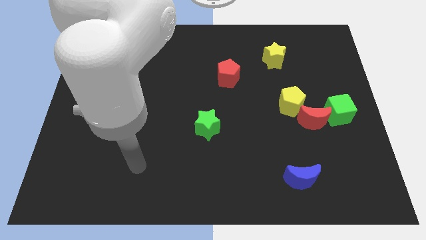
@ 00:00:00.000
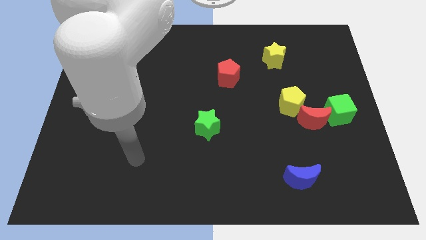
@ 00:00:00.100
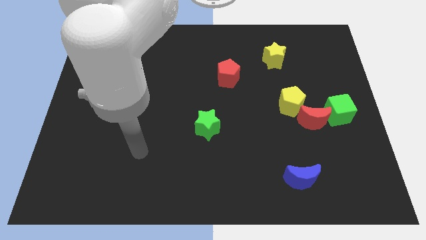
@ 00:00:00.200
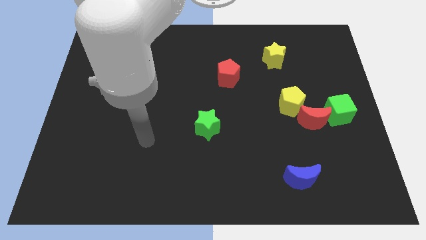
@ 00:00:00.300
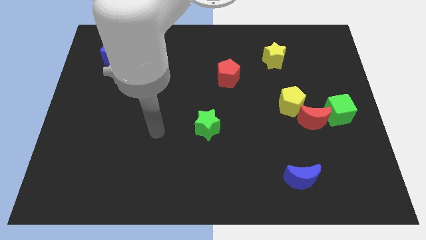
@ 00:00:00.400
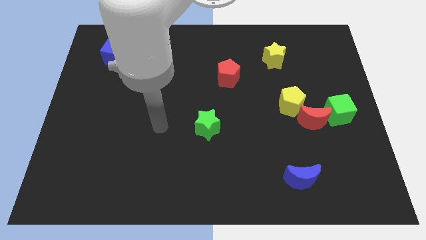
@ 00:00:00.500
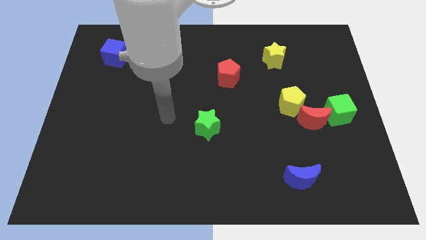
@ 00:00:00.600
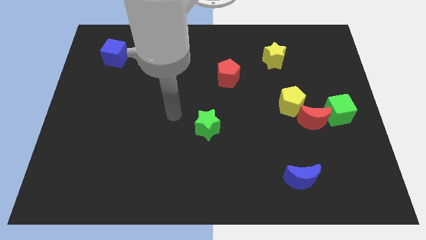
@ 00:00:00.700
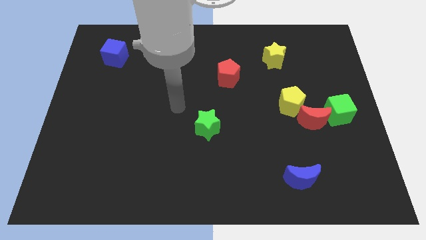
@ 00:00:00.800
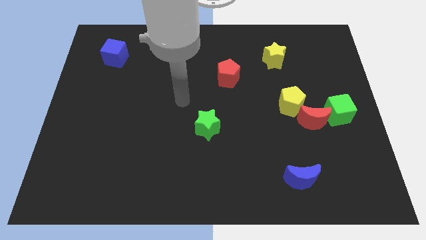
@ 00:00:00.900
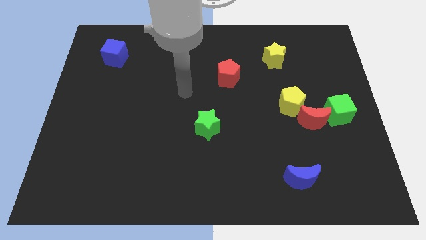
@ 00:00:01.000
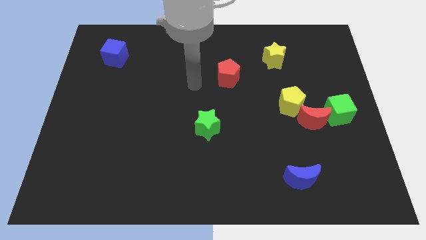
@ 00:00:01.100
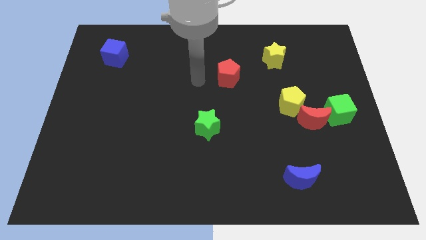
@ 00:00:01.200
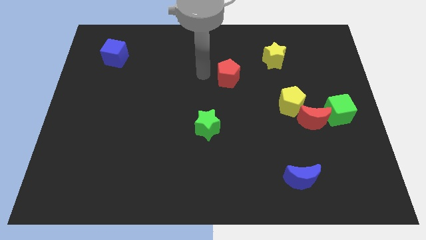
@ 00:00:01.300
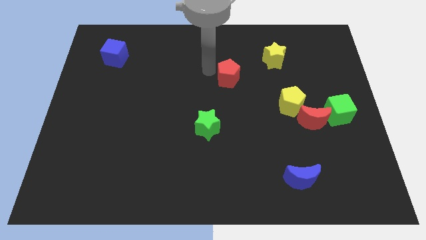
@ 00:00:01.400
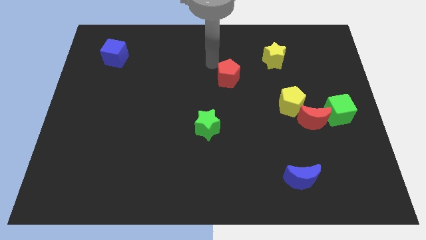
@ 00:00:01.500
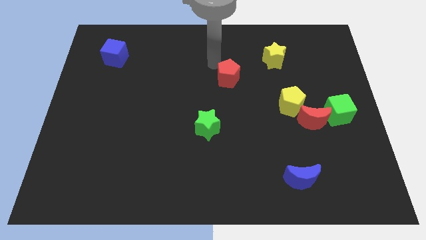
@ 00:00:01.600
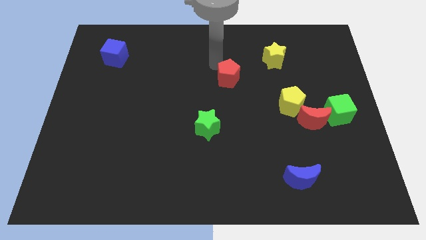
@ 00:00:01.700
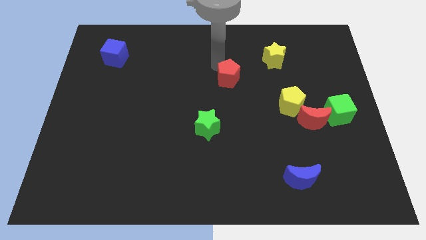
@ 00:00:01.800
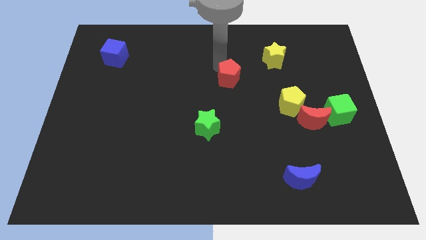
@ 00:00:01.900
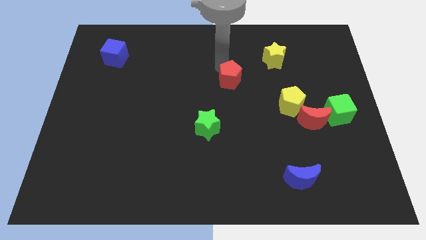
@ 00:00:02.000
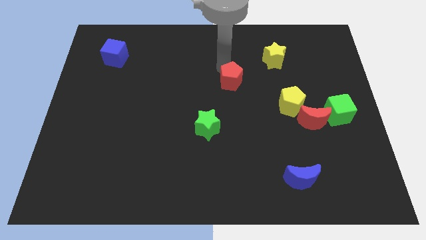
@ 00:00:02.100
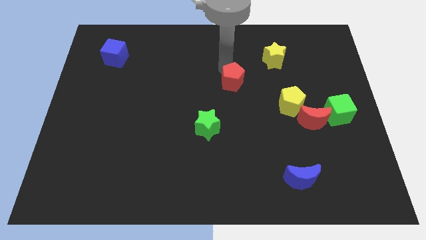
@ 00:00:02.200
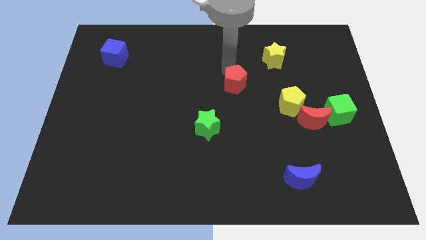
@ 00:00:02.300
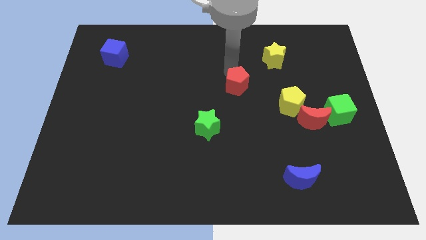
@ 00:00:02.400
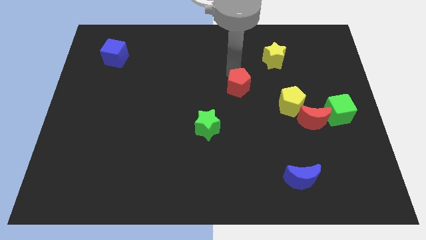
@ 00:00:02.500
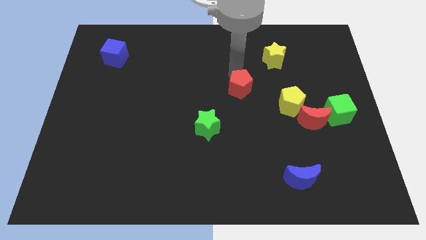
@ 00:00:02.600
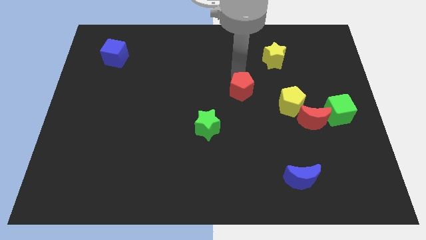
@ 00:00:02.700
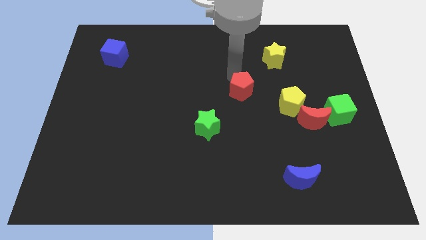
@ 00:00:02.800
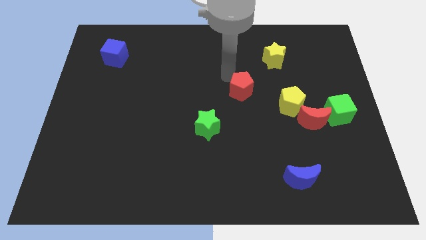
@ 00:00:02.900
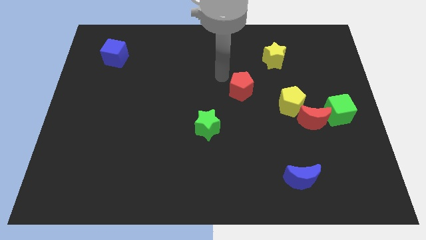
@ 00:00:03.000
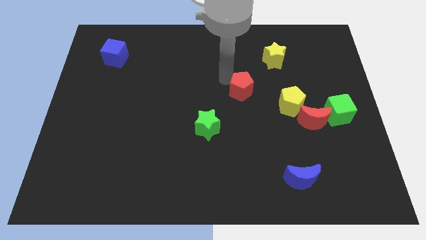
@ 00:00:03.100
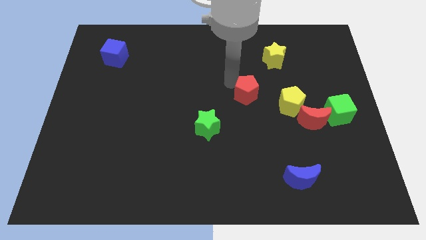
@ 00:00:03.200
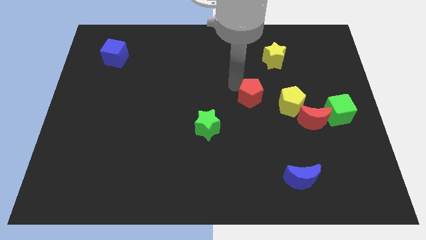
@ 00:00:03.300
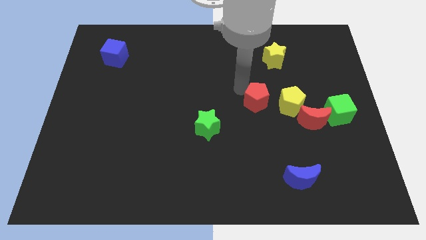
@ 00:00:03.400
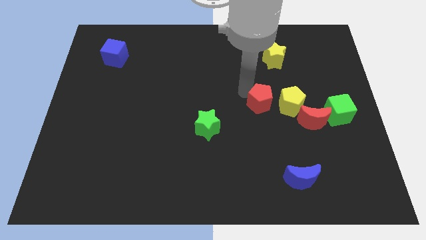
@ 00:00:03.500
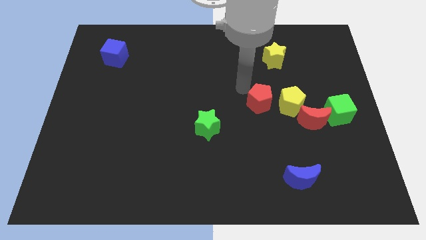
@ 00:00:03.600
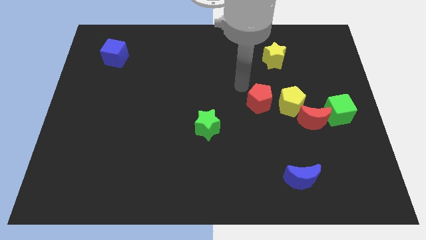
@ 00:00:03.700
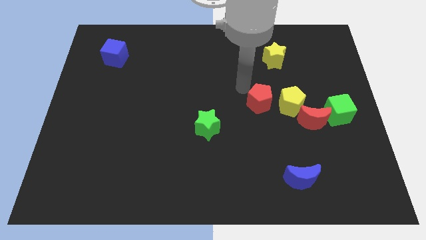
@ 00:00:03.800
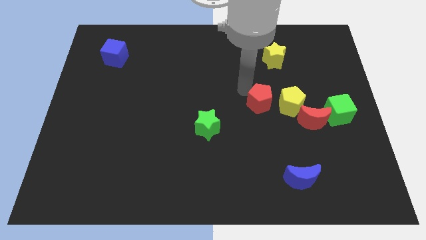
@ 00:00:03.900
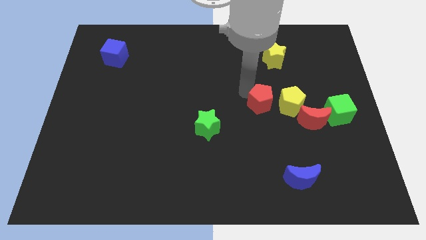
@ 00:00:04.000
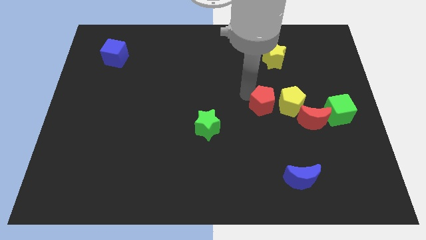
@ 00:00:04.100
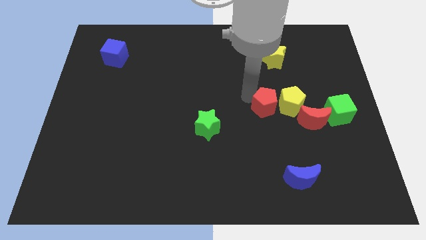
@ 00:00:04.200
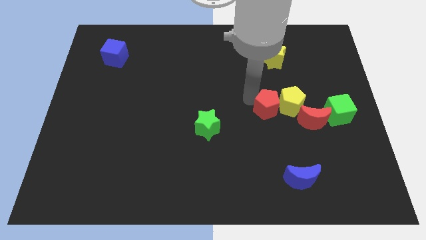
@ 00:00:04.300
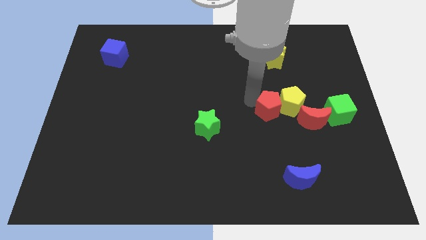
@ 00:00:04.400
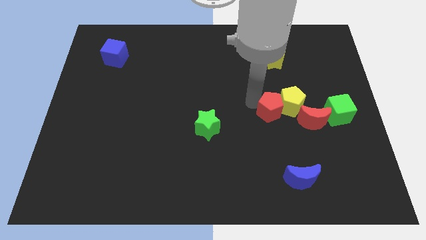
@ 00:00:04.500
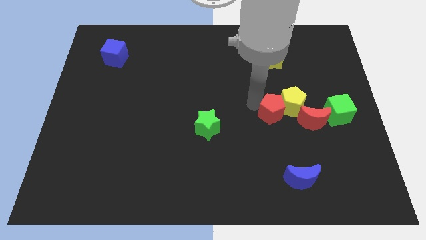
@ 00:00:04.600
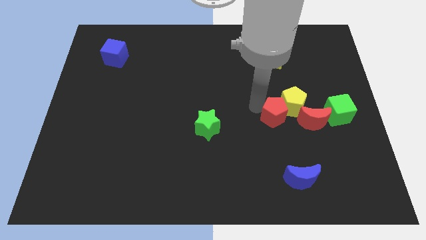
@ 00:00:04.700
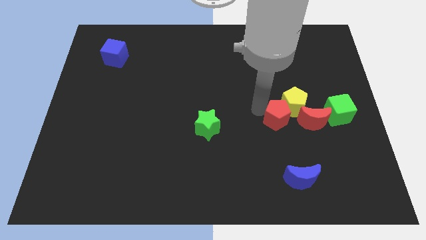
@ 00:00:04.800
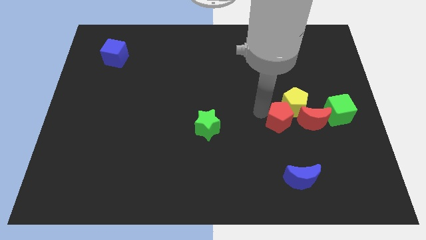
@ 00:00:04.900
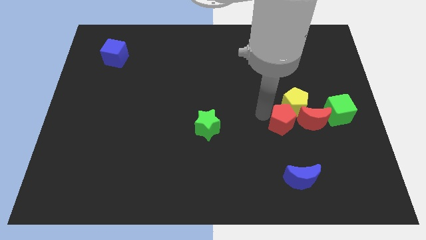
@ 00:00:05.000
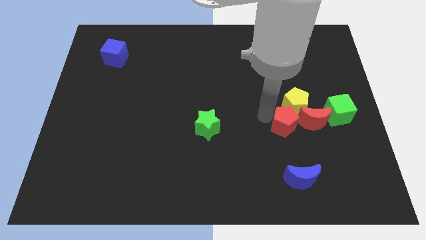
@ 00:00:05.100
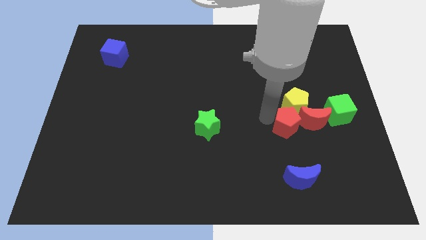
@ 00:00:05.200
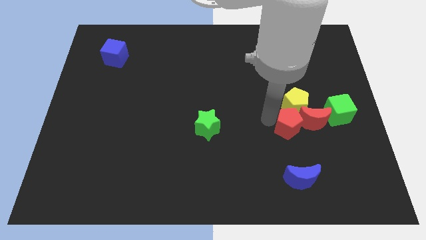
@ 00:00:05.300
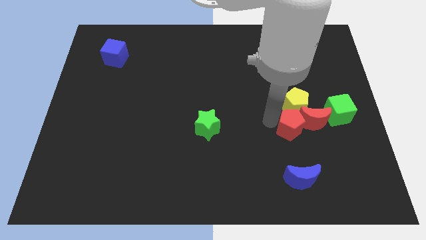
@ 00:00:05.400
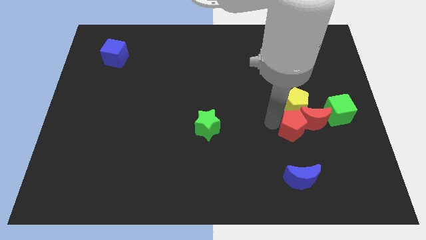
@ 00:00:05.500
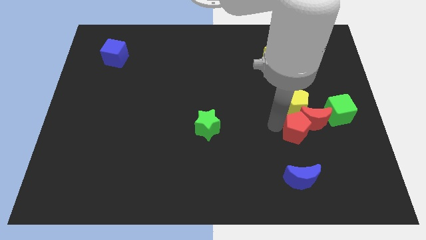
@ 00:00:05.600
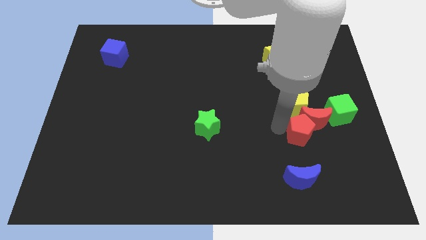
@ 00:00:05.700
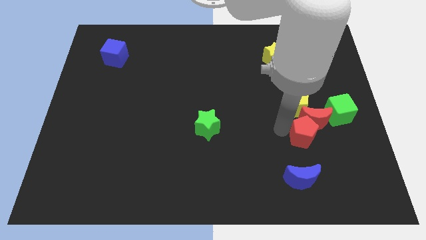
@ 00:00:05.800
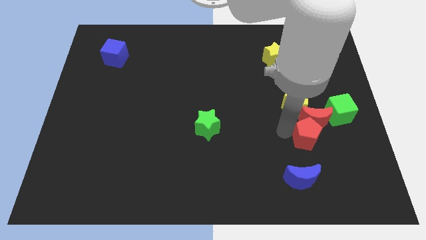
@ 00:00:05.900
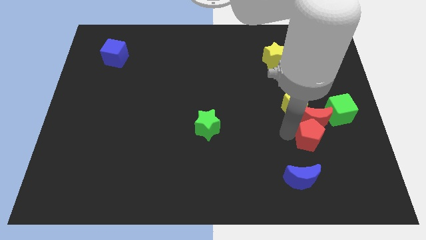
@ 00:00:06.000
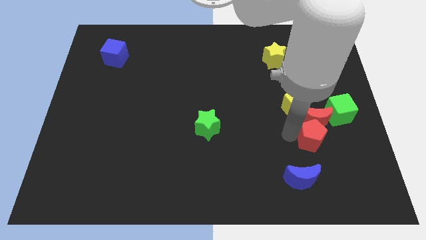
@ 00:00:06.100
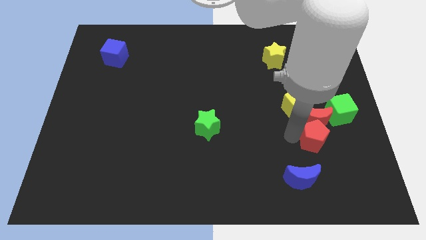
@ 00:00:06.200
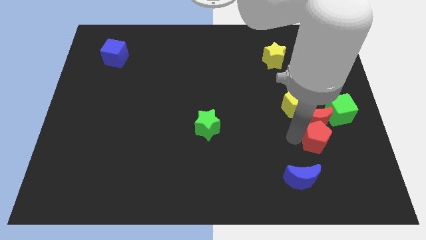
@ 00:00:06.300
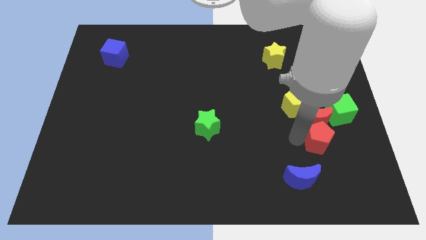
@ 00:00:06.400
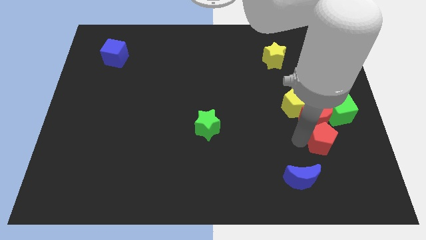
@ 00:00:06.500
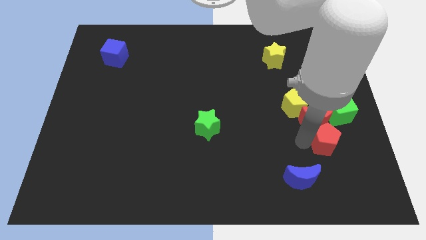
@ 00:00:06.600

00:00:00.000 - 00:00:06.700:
put the red pentagon to the bottom side of the green cube

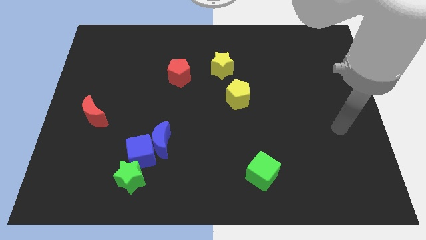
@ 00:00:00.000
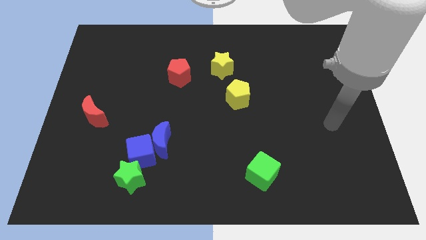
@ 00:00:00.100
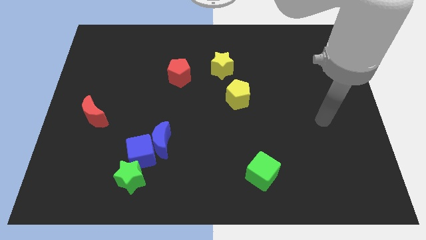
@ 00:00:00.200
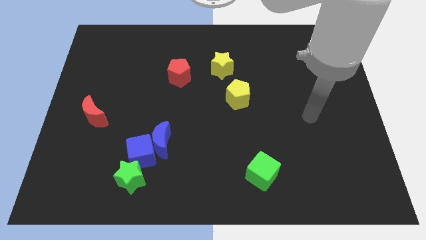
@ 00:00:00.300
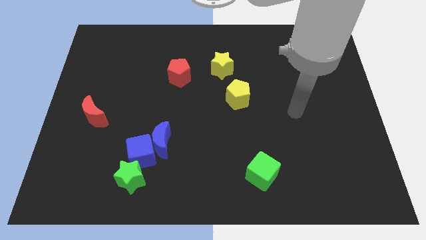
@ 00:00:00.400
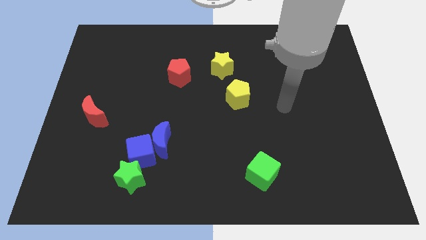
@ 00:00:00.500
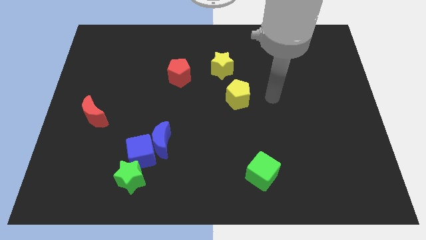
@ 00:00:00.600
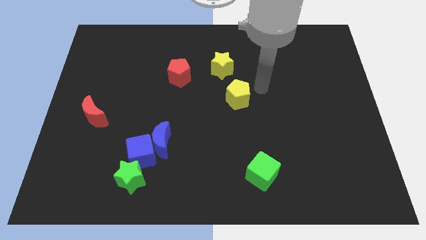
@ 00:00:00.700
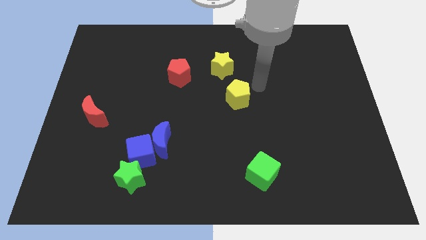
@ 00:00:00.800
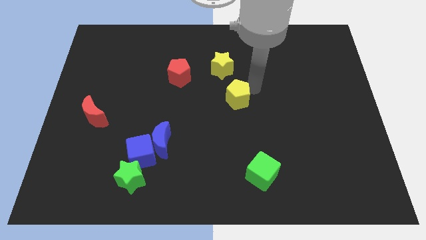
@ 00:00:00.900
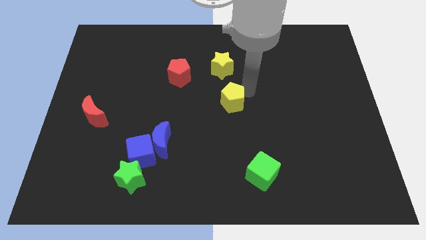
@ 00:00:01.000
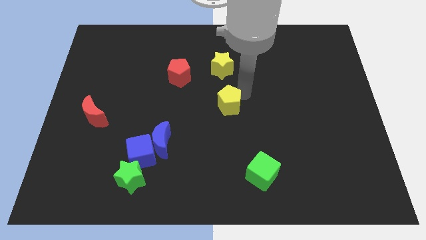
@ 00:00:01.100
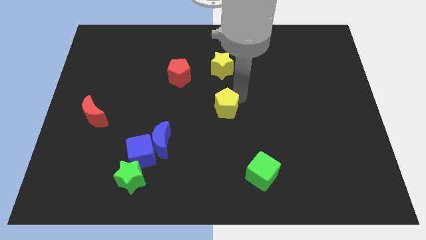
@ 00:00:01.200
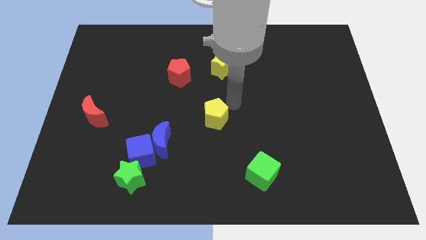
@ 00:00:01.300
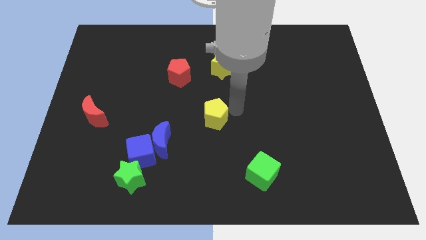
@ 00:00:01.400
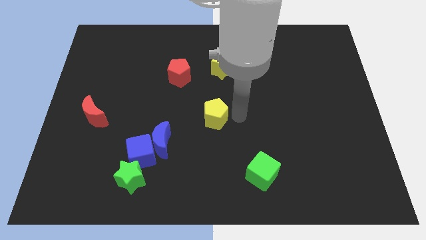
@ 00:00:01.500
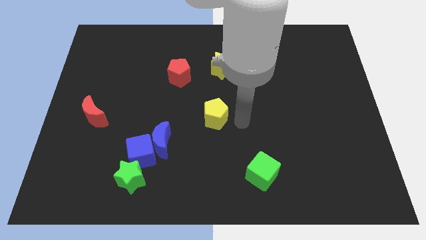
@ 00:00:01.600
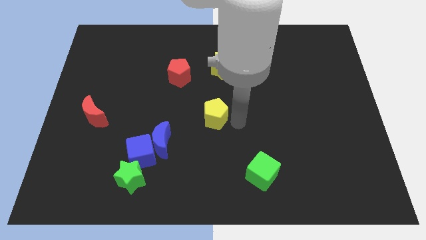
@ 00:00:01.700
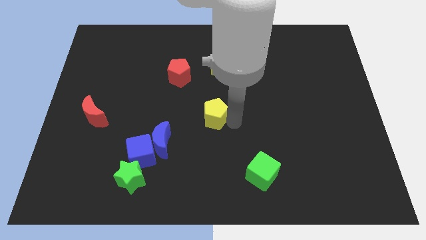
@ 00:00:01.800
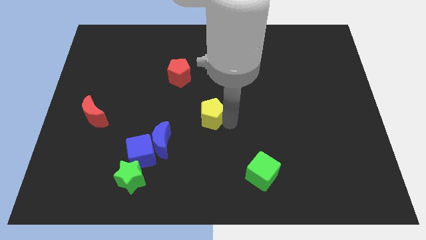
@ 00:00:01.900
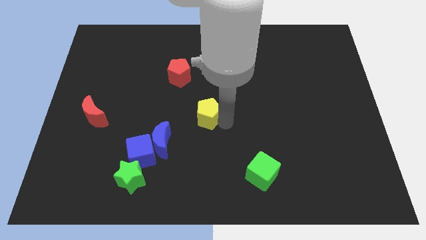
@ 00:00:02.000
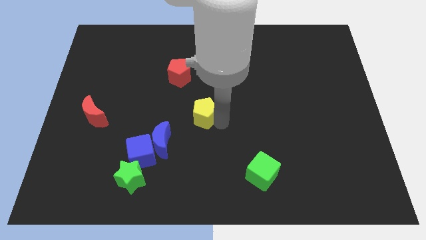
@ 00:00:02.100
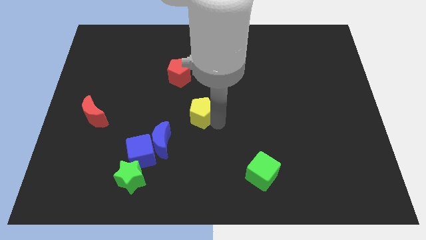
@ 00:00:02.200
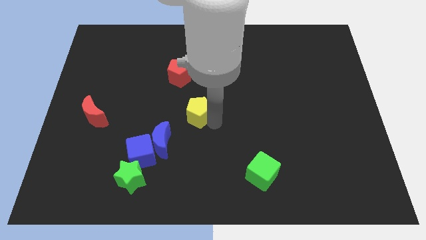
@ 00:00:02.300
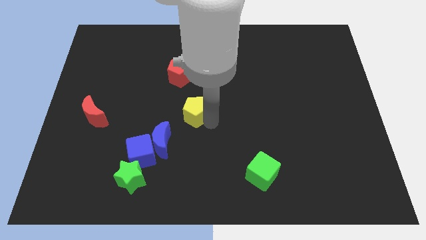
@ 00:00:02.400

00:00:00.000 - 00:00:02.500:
put the yellow pentagon to the bottom of the red pentagon
